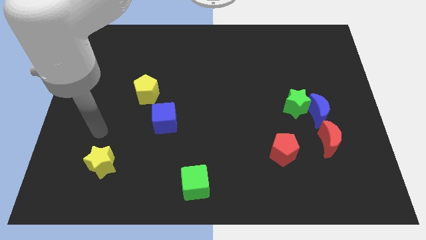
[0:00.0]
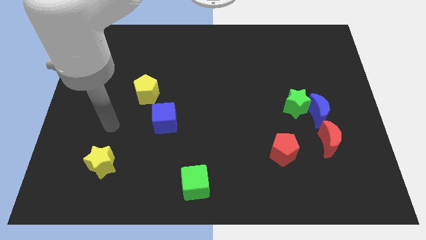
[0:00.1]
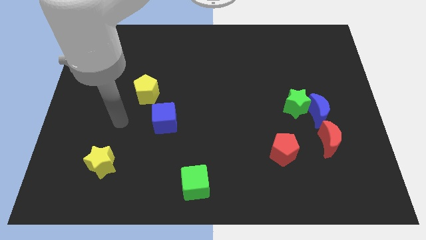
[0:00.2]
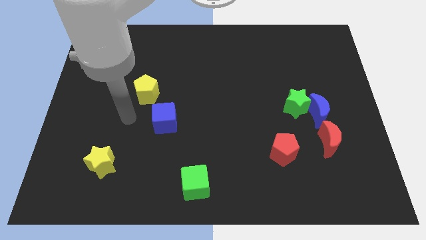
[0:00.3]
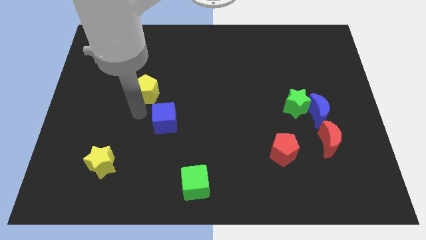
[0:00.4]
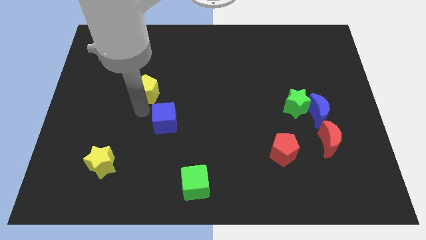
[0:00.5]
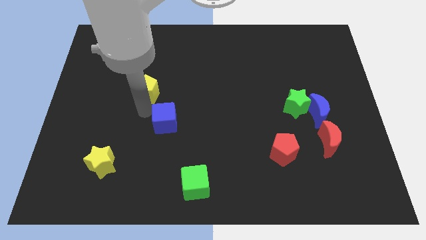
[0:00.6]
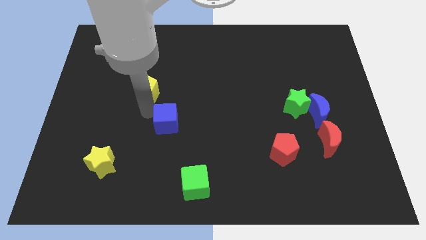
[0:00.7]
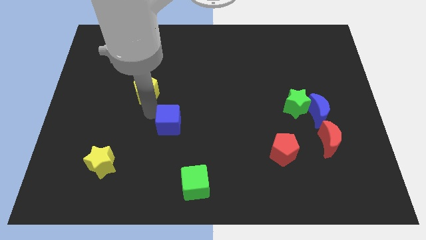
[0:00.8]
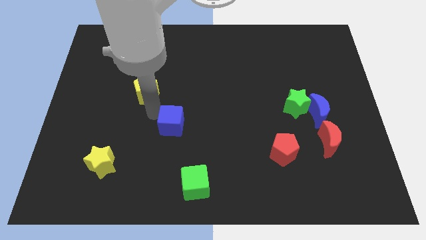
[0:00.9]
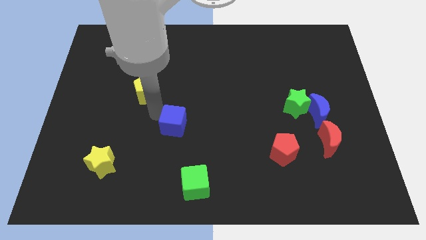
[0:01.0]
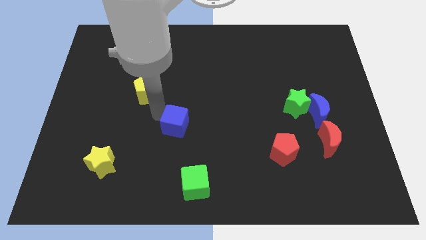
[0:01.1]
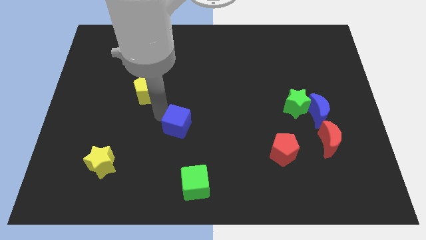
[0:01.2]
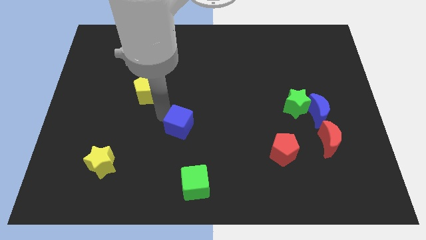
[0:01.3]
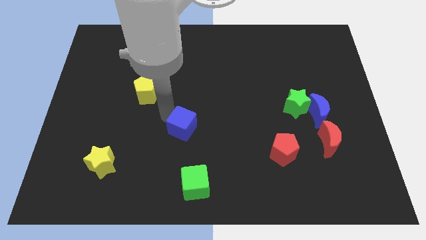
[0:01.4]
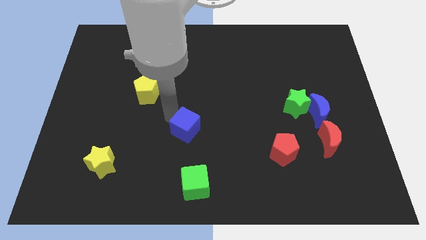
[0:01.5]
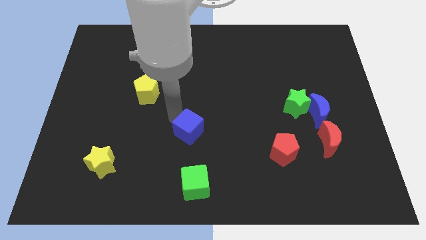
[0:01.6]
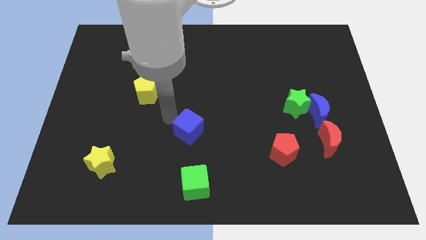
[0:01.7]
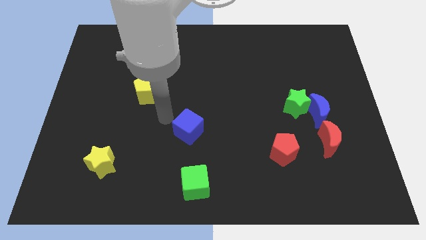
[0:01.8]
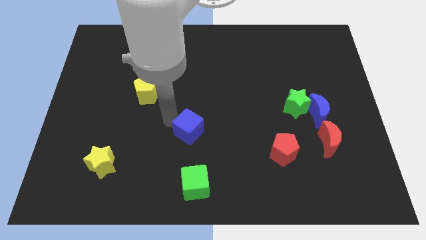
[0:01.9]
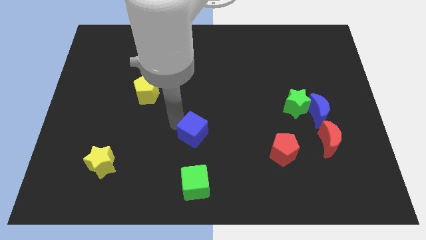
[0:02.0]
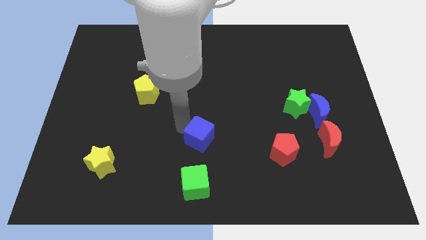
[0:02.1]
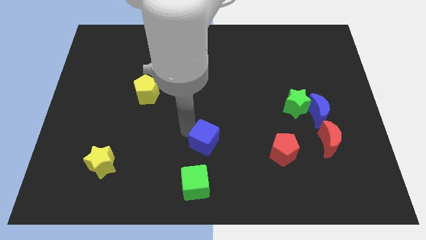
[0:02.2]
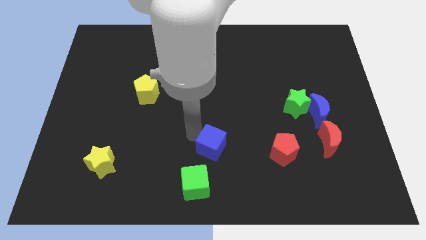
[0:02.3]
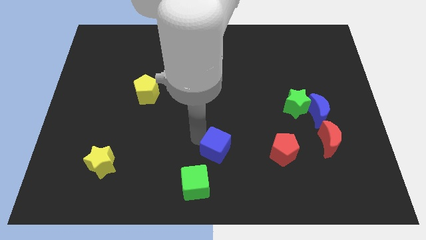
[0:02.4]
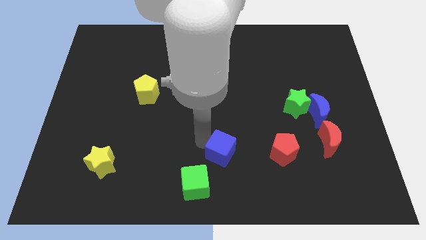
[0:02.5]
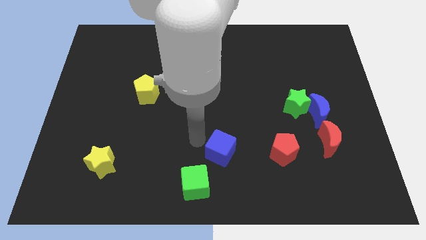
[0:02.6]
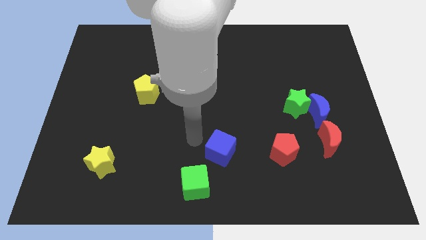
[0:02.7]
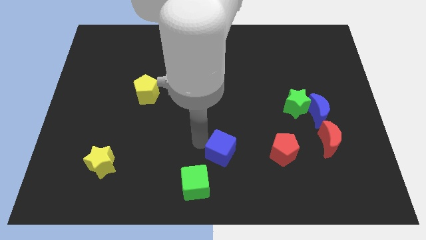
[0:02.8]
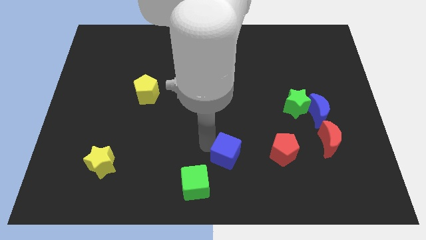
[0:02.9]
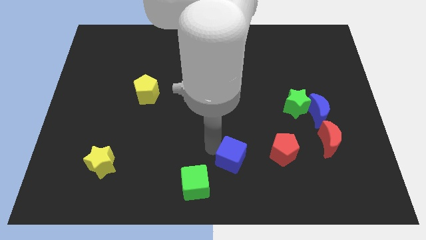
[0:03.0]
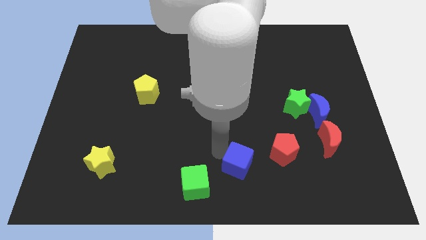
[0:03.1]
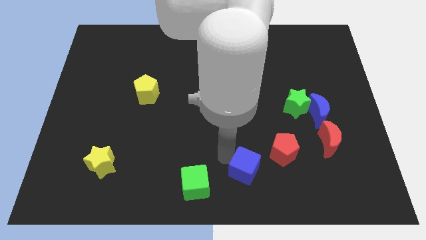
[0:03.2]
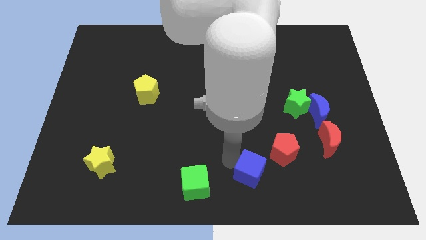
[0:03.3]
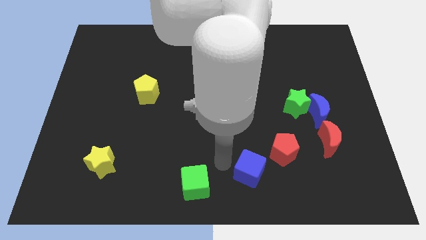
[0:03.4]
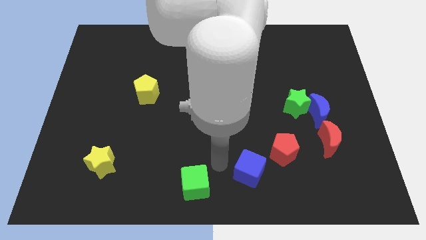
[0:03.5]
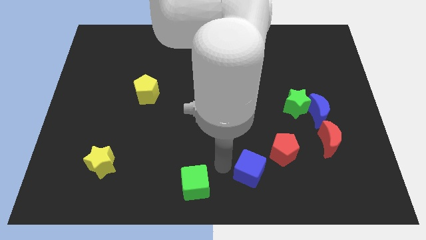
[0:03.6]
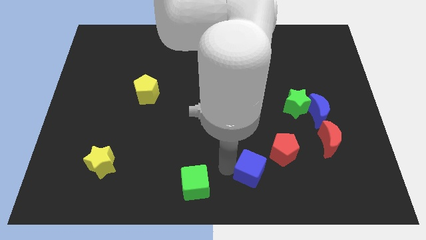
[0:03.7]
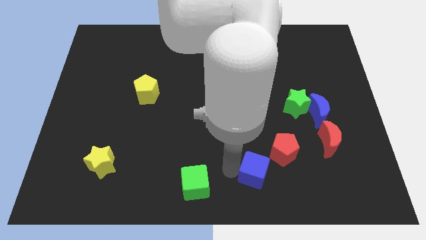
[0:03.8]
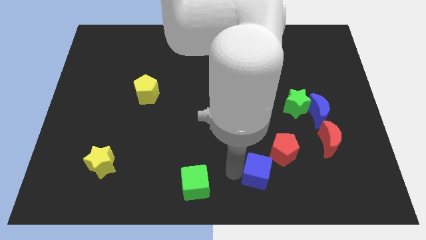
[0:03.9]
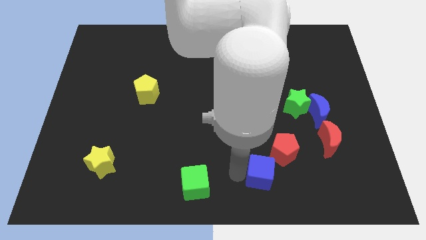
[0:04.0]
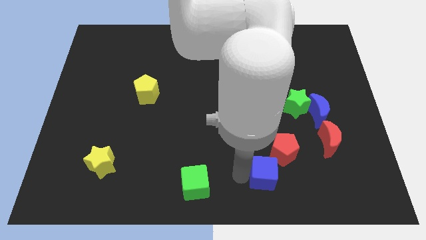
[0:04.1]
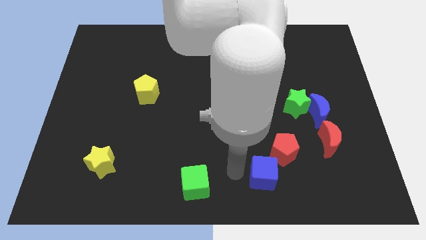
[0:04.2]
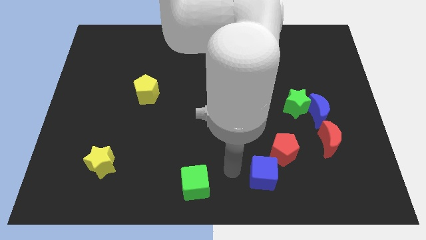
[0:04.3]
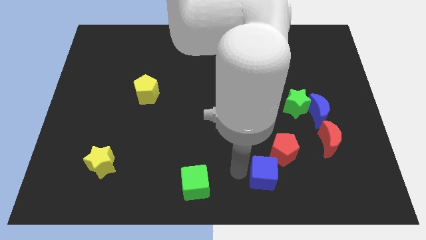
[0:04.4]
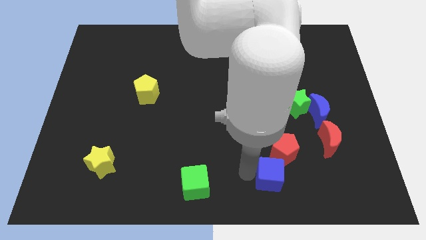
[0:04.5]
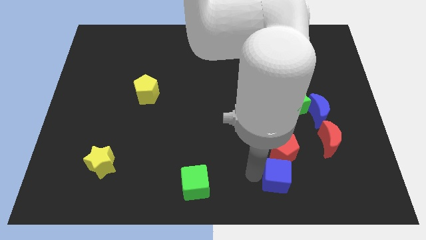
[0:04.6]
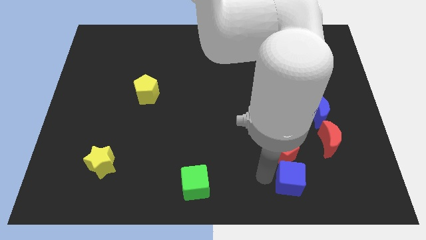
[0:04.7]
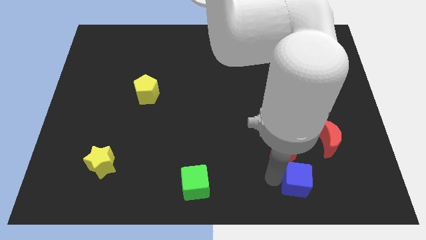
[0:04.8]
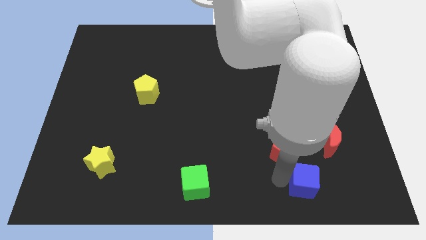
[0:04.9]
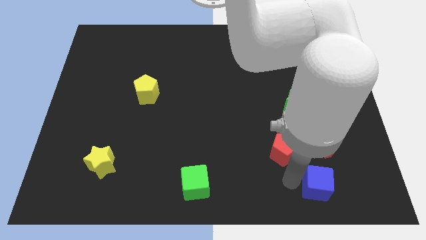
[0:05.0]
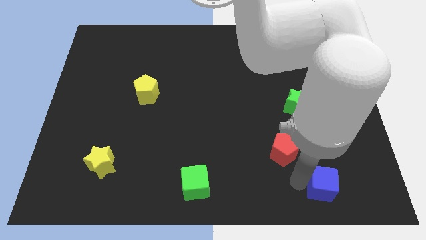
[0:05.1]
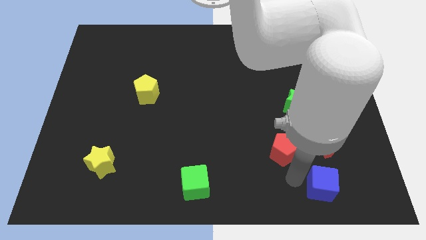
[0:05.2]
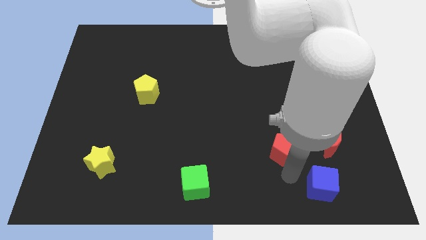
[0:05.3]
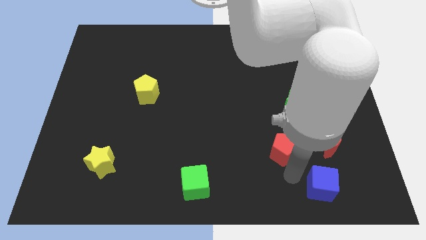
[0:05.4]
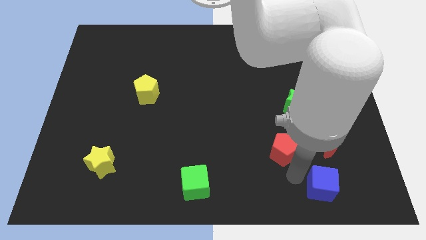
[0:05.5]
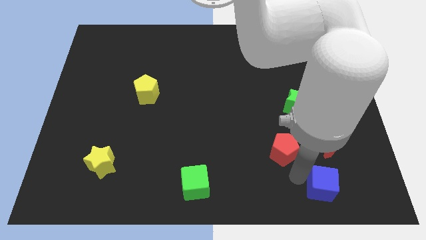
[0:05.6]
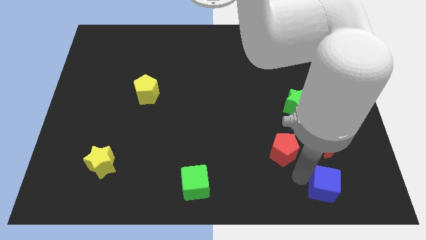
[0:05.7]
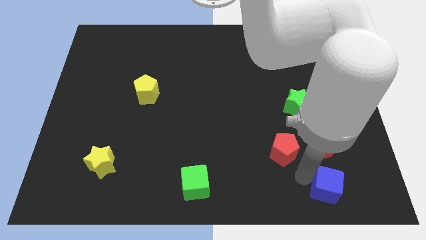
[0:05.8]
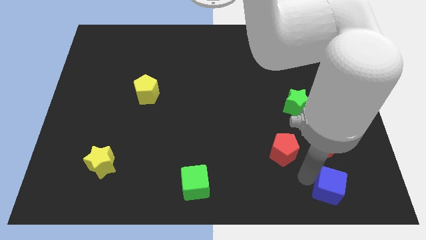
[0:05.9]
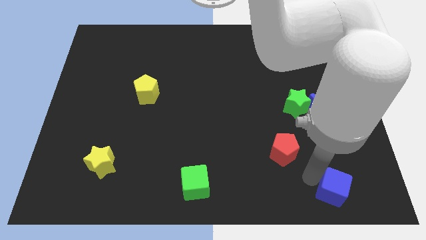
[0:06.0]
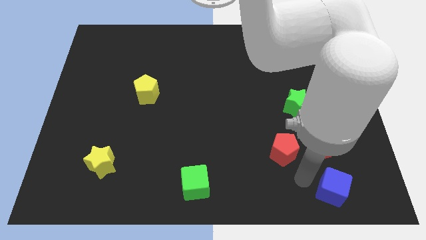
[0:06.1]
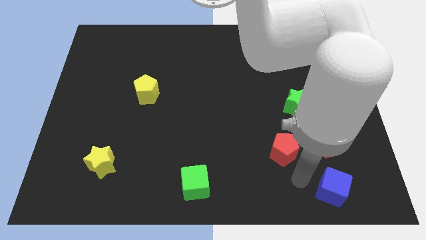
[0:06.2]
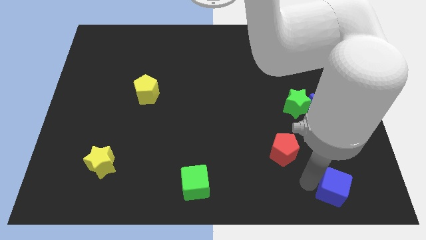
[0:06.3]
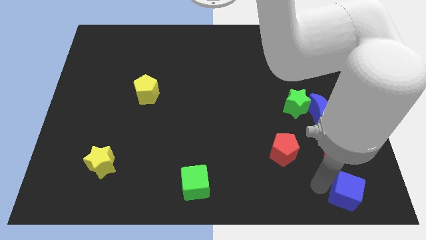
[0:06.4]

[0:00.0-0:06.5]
put the blue cube to the bottom right

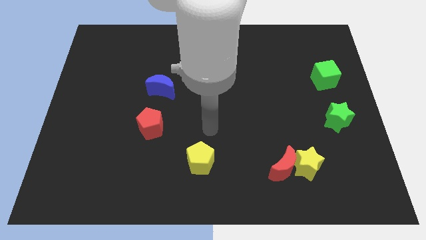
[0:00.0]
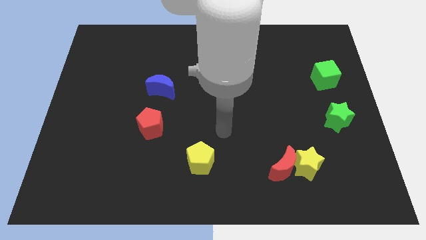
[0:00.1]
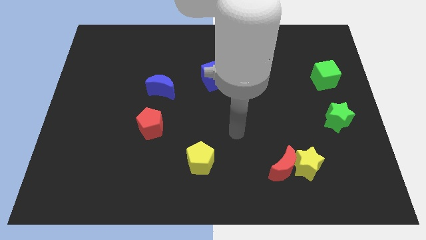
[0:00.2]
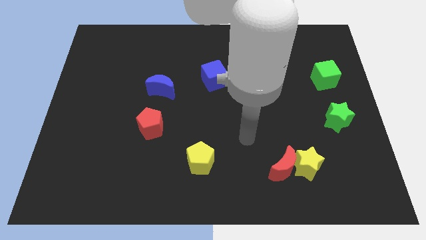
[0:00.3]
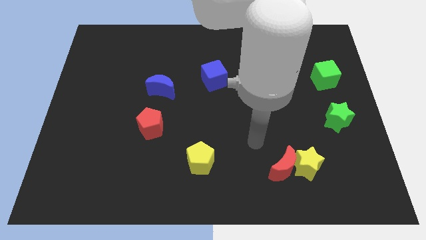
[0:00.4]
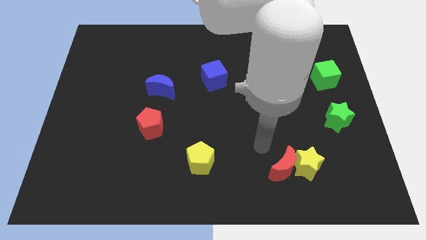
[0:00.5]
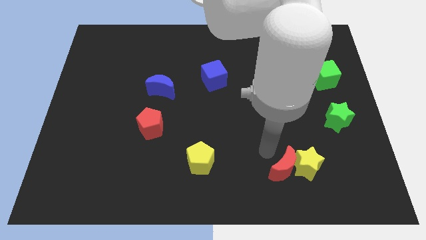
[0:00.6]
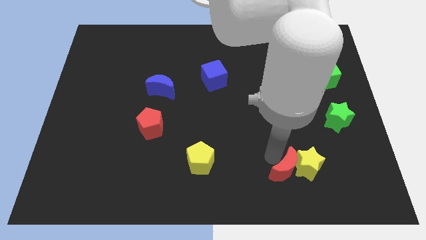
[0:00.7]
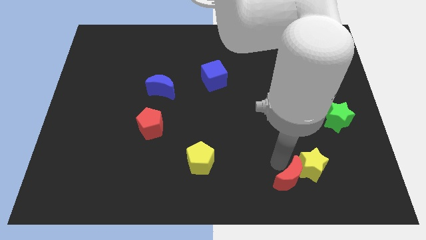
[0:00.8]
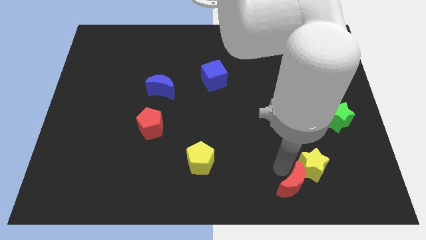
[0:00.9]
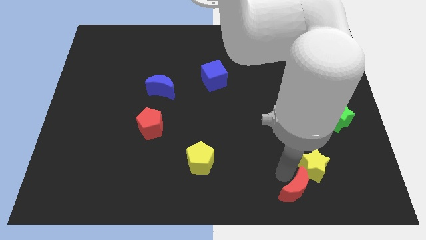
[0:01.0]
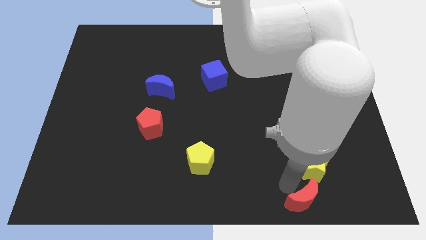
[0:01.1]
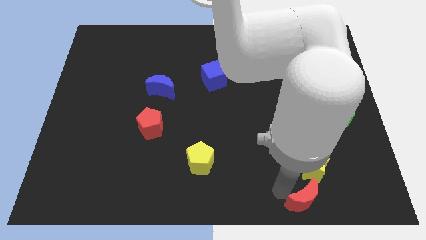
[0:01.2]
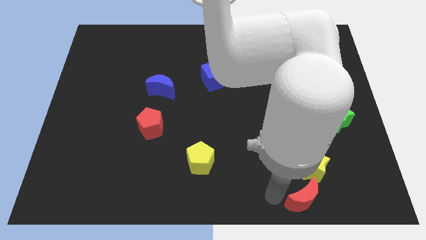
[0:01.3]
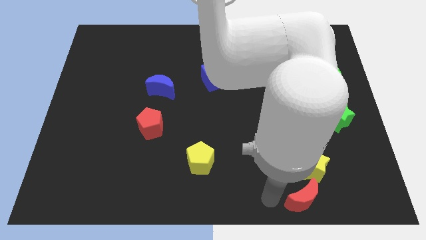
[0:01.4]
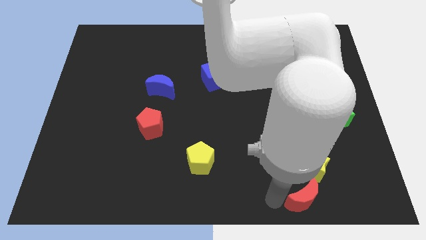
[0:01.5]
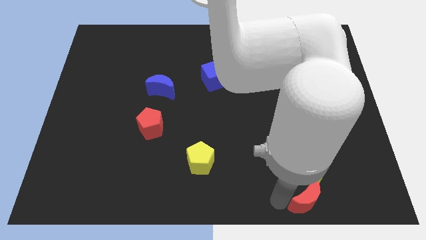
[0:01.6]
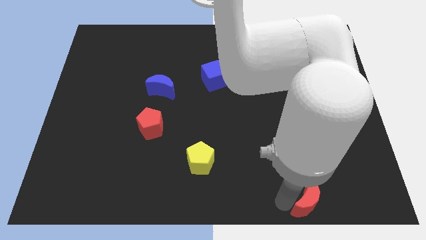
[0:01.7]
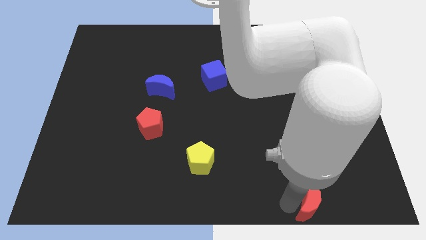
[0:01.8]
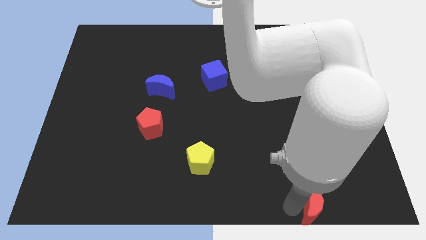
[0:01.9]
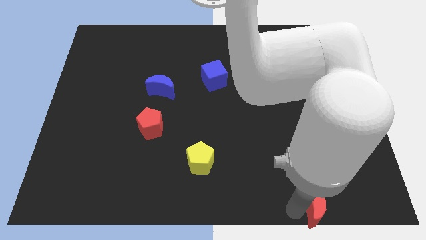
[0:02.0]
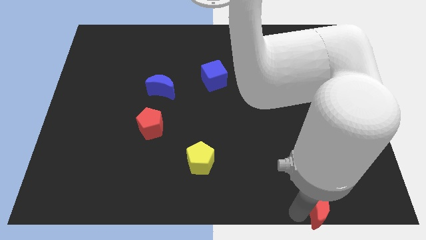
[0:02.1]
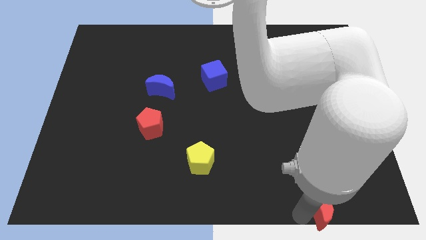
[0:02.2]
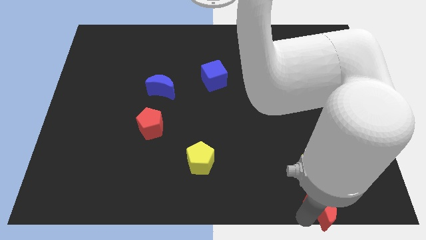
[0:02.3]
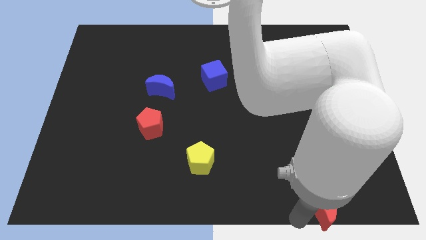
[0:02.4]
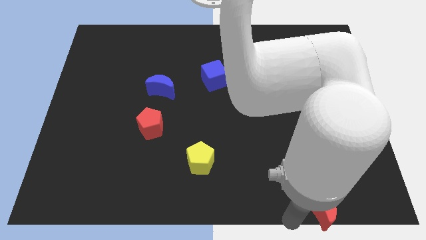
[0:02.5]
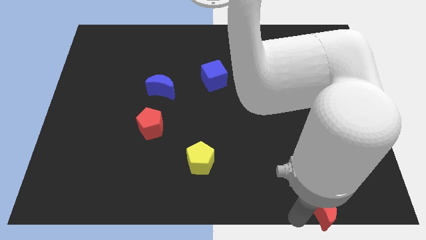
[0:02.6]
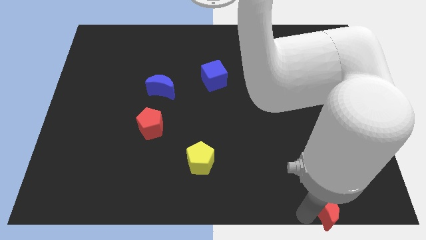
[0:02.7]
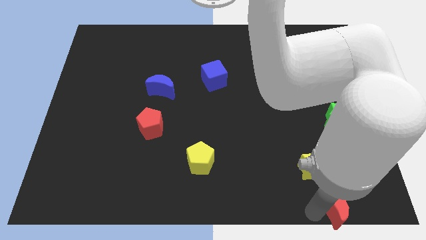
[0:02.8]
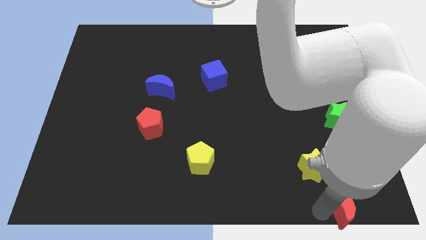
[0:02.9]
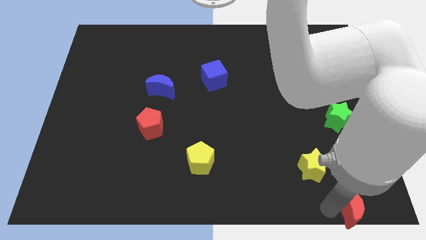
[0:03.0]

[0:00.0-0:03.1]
slide the red moon to the bottom right of the board
